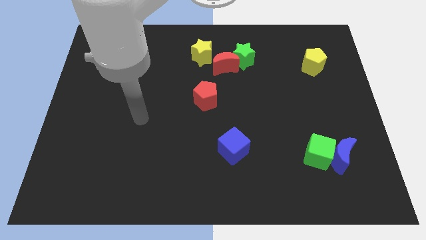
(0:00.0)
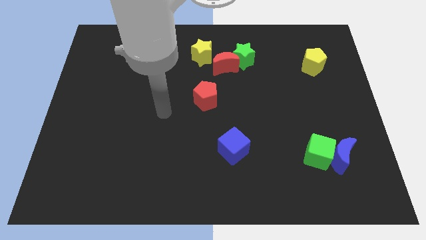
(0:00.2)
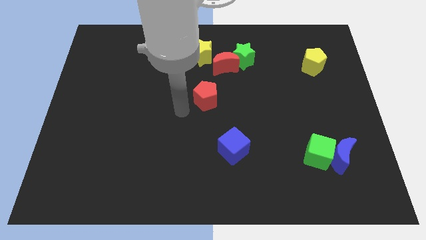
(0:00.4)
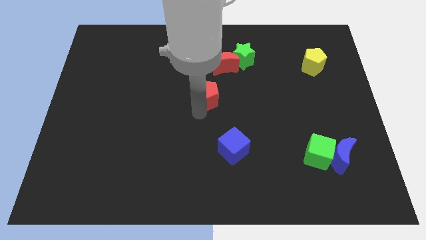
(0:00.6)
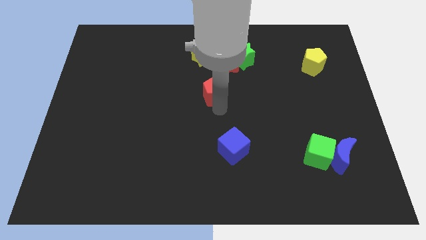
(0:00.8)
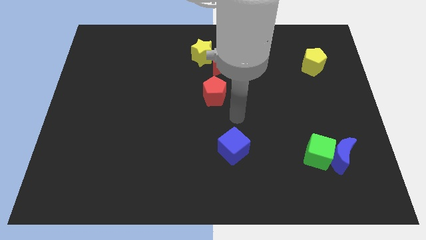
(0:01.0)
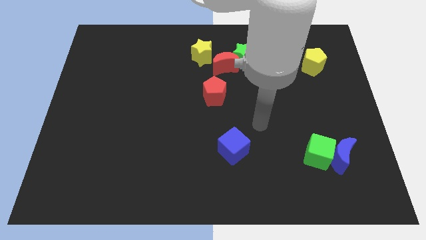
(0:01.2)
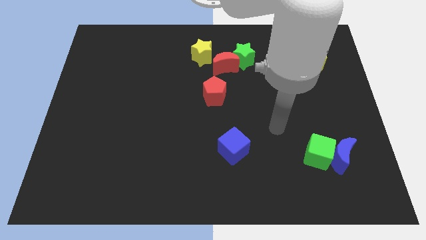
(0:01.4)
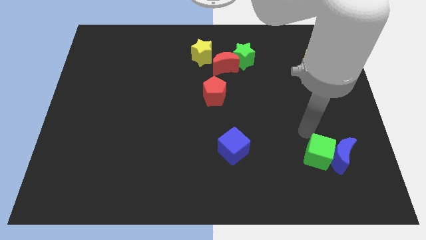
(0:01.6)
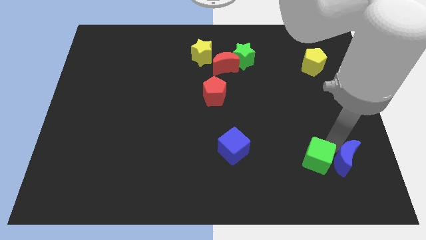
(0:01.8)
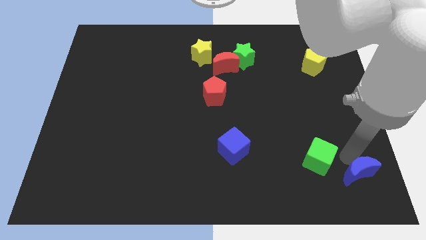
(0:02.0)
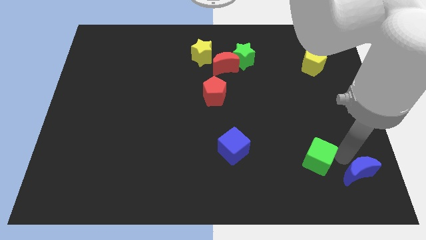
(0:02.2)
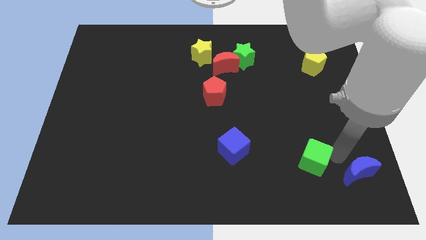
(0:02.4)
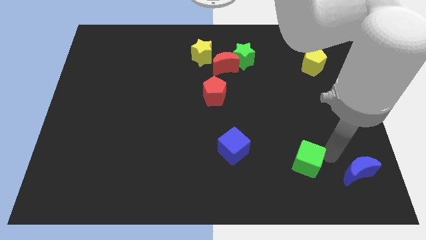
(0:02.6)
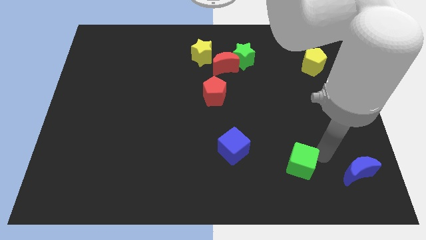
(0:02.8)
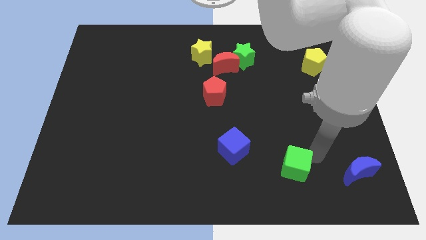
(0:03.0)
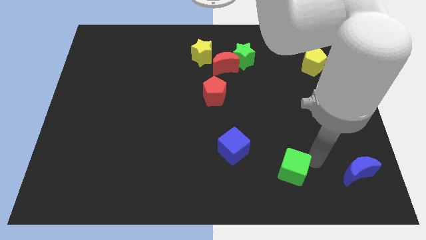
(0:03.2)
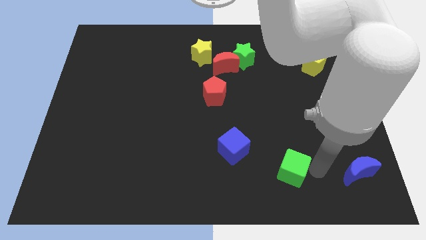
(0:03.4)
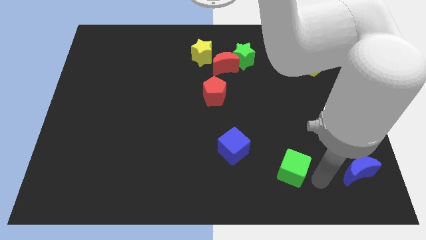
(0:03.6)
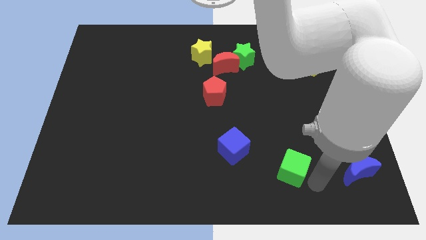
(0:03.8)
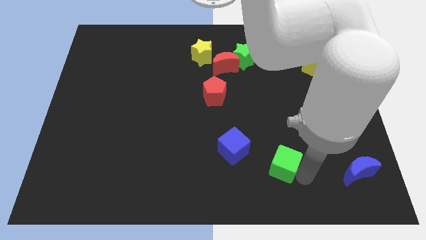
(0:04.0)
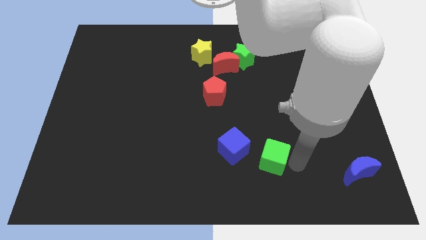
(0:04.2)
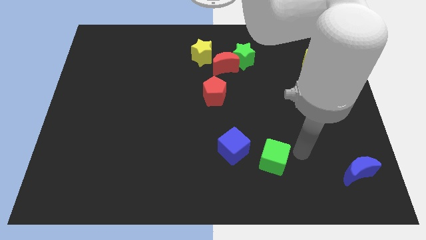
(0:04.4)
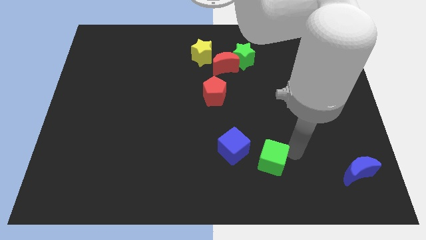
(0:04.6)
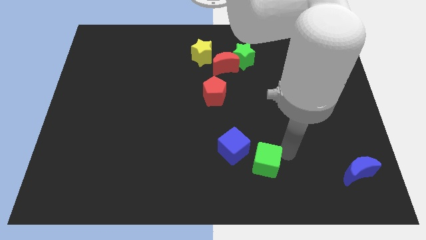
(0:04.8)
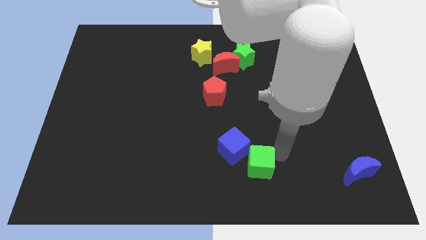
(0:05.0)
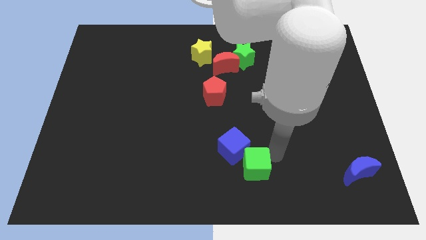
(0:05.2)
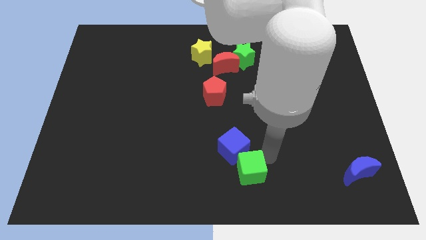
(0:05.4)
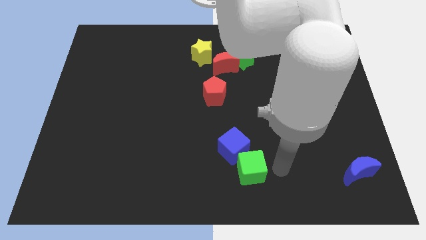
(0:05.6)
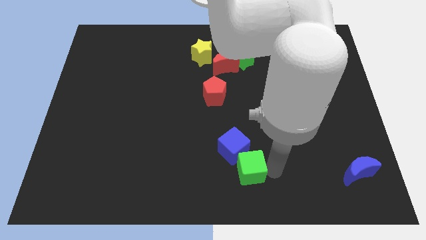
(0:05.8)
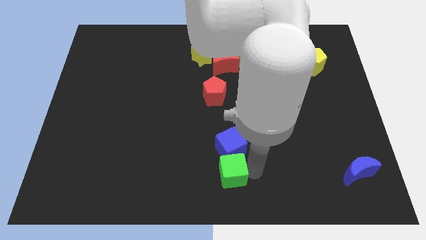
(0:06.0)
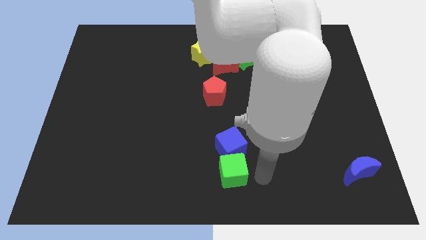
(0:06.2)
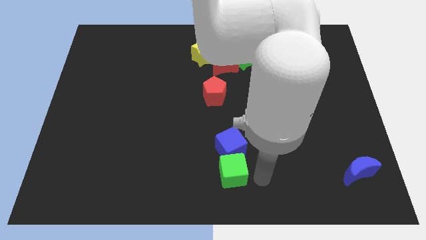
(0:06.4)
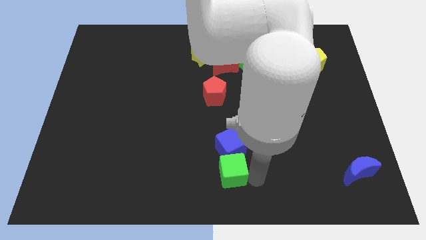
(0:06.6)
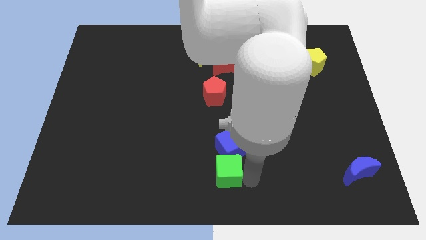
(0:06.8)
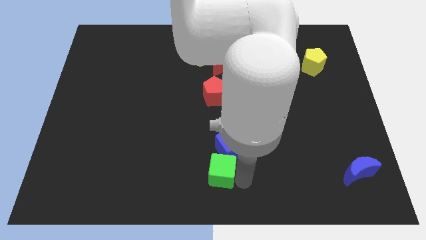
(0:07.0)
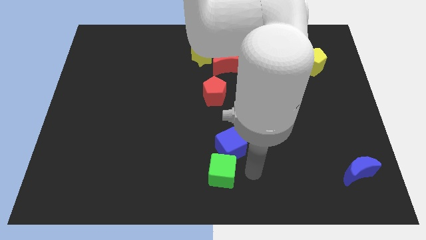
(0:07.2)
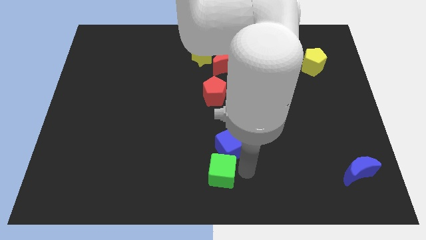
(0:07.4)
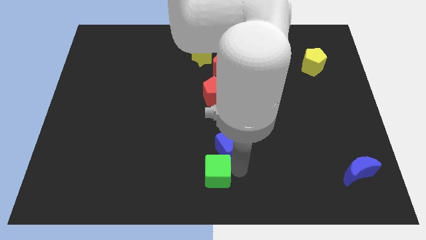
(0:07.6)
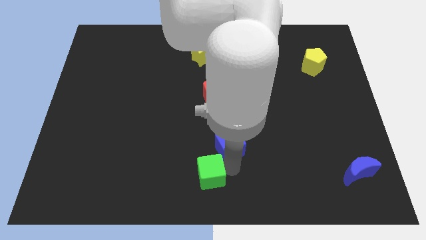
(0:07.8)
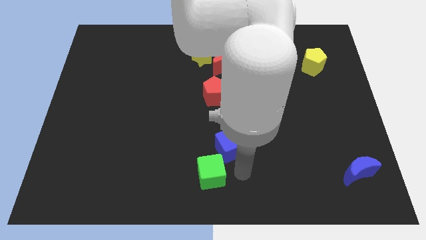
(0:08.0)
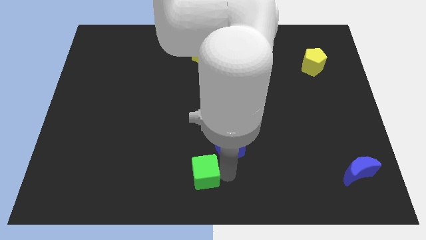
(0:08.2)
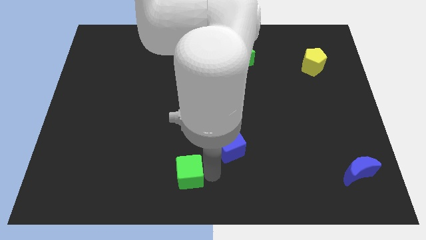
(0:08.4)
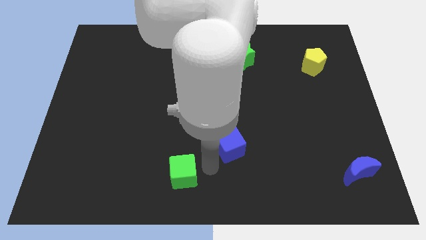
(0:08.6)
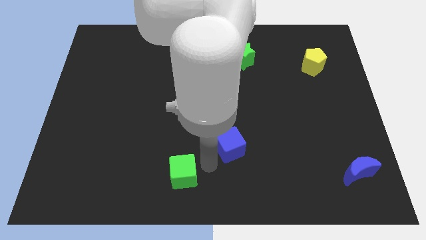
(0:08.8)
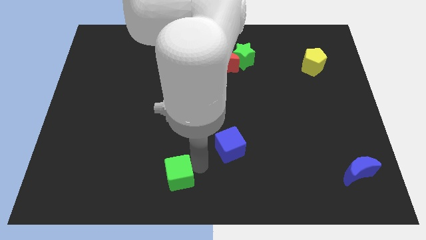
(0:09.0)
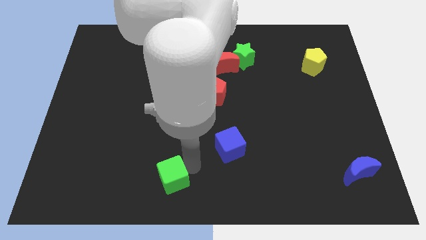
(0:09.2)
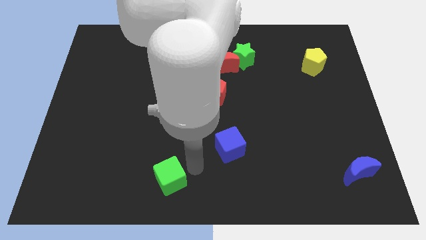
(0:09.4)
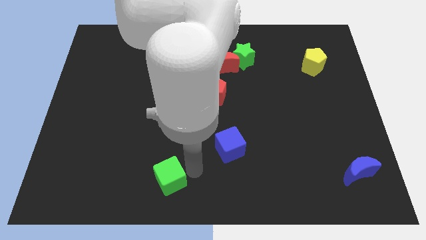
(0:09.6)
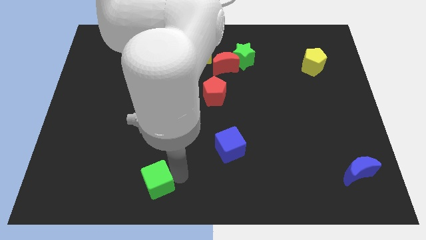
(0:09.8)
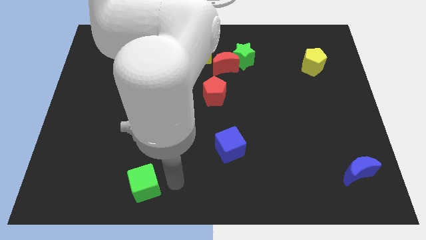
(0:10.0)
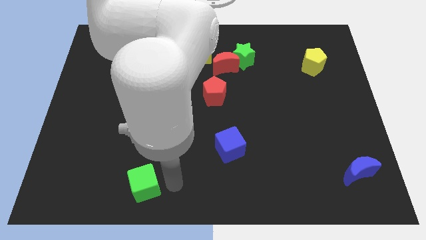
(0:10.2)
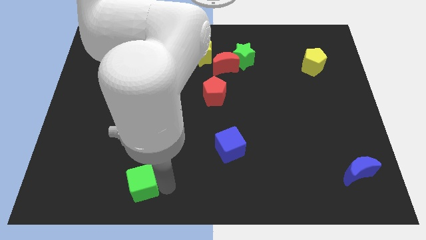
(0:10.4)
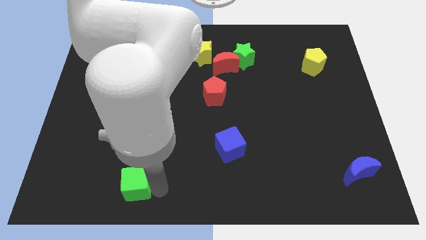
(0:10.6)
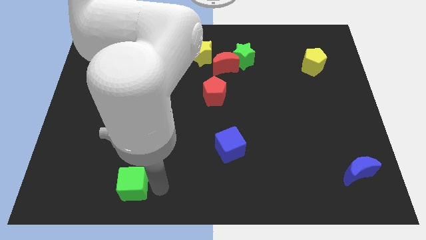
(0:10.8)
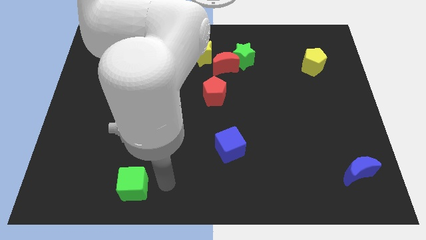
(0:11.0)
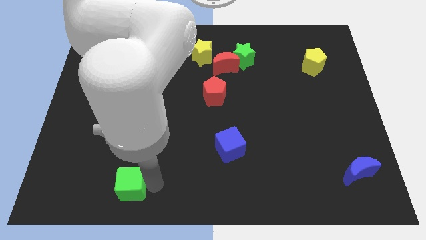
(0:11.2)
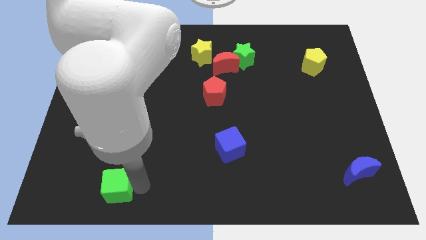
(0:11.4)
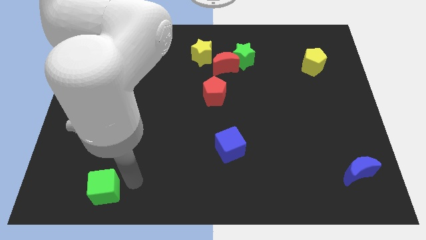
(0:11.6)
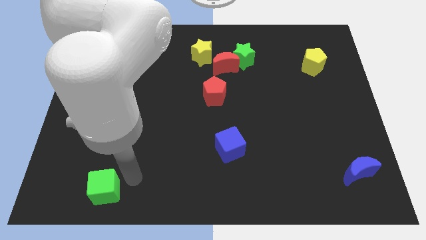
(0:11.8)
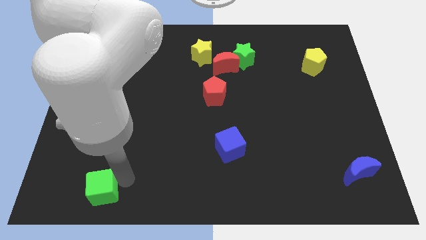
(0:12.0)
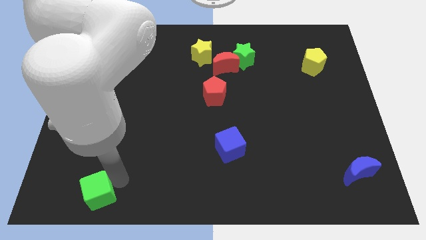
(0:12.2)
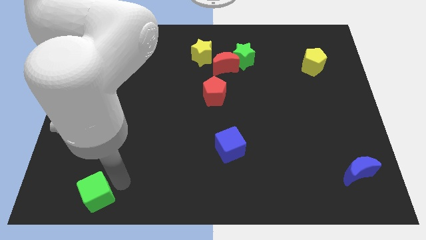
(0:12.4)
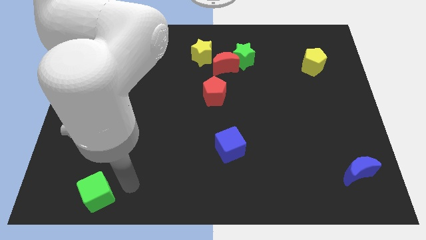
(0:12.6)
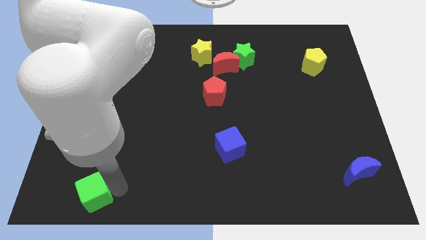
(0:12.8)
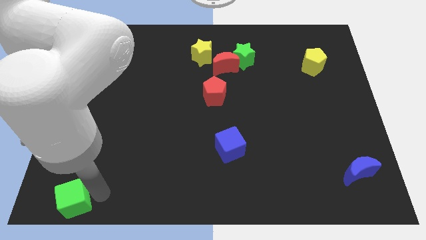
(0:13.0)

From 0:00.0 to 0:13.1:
slide the green cube to the bottom left

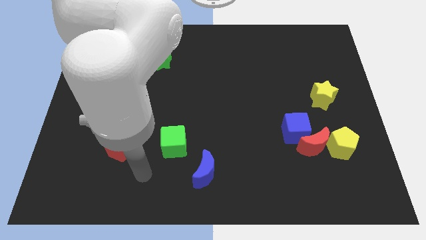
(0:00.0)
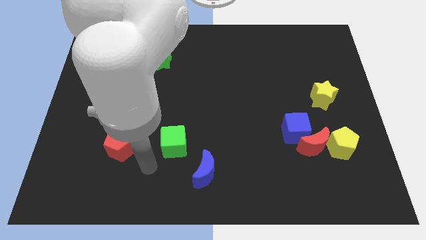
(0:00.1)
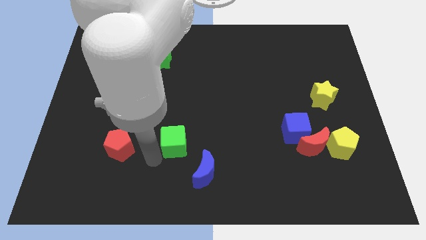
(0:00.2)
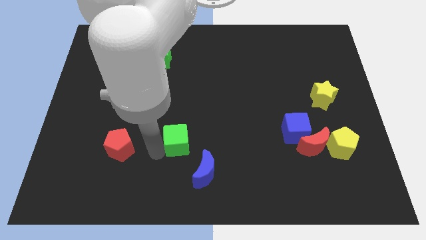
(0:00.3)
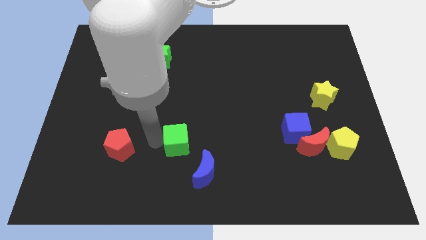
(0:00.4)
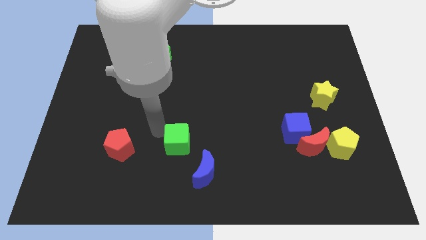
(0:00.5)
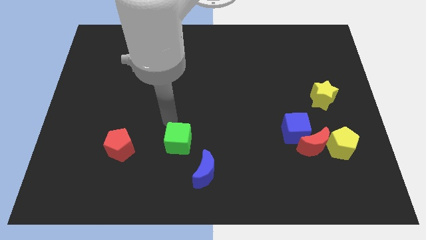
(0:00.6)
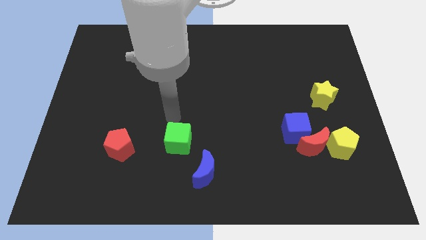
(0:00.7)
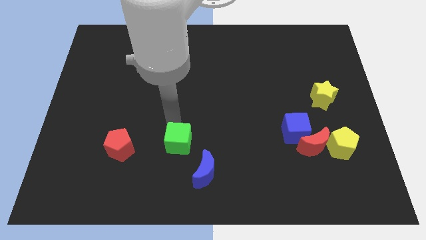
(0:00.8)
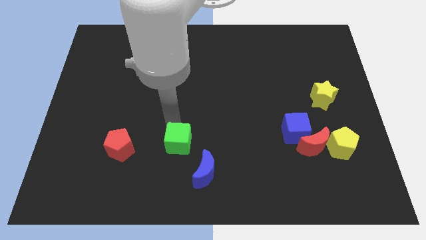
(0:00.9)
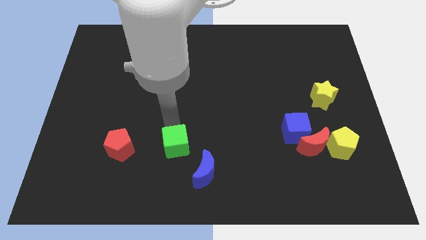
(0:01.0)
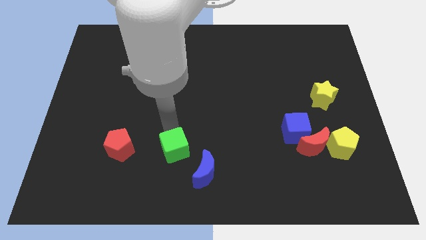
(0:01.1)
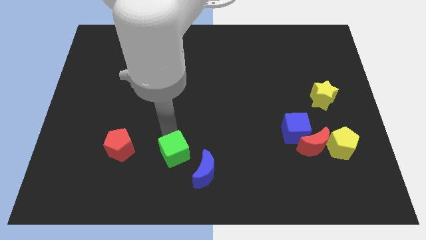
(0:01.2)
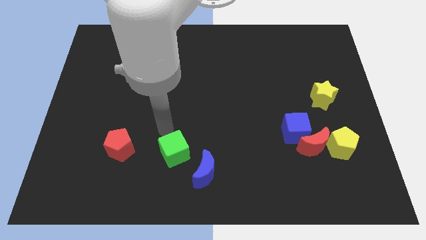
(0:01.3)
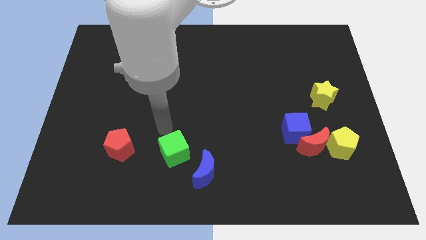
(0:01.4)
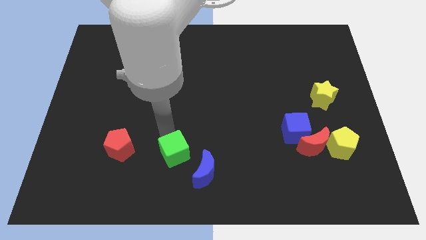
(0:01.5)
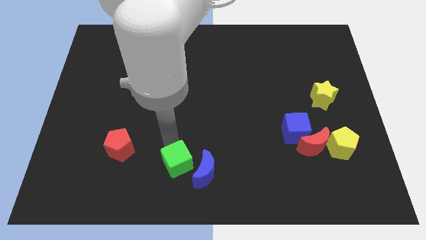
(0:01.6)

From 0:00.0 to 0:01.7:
slide the green cube to the bottom side
